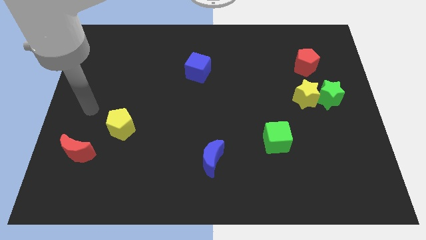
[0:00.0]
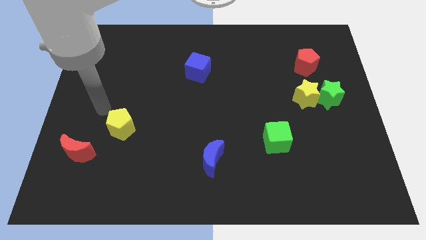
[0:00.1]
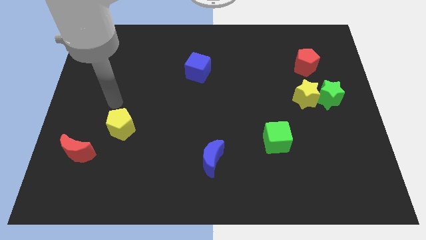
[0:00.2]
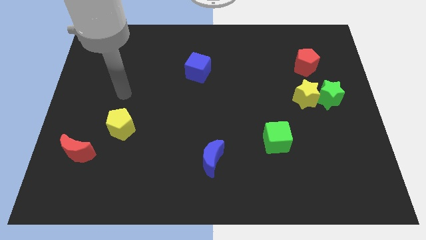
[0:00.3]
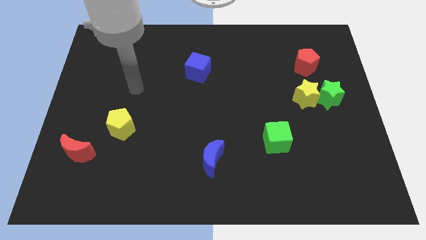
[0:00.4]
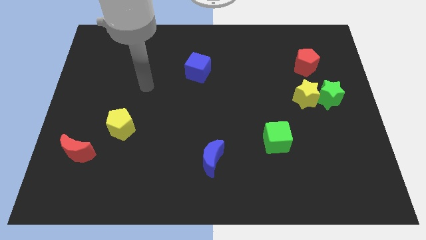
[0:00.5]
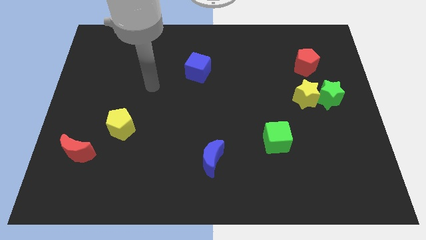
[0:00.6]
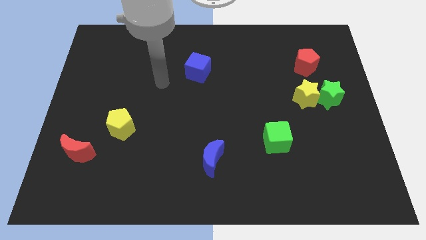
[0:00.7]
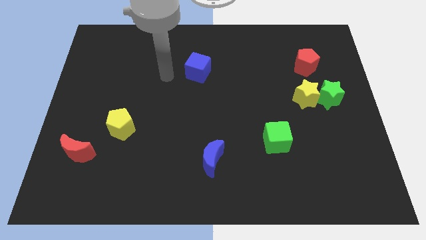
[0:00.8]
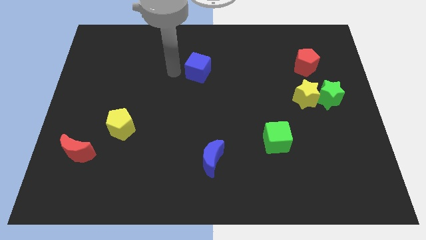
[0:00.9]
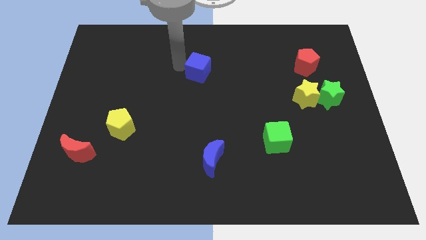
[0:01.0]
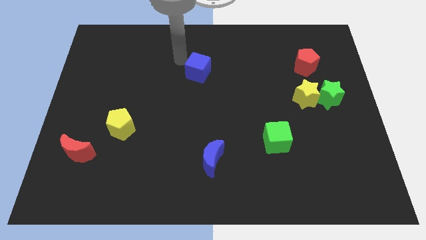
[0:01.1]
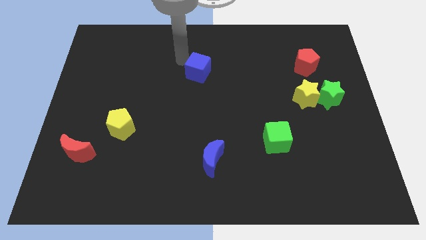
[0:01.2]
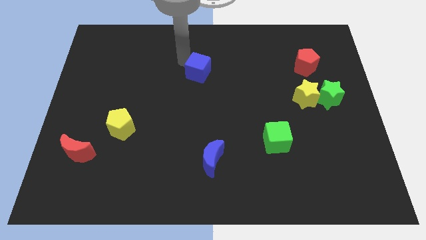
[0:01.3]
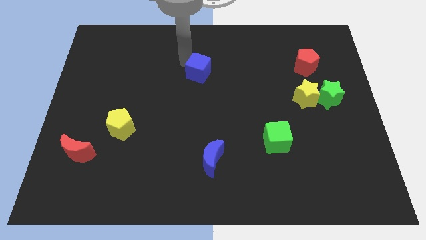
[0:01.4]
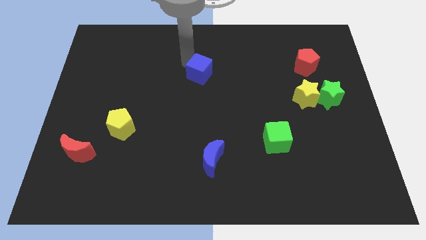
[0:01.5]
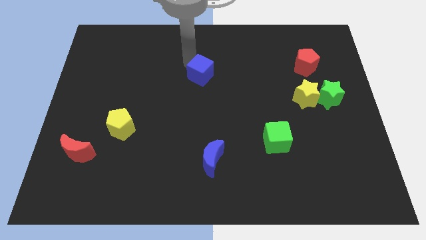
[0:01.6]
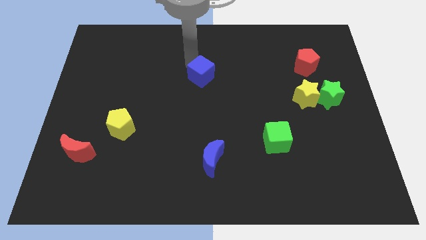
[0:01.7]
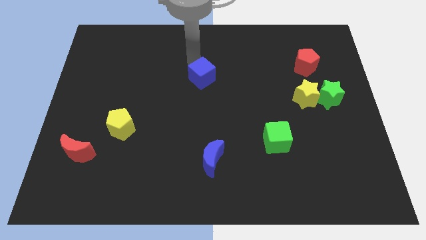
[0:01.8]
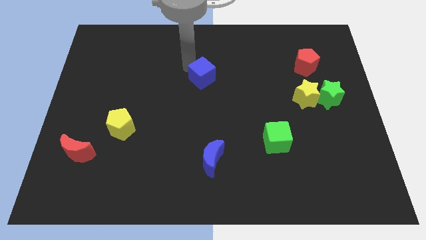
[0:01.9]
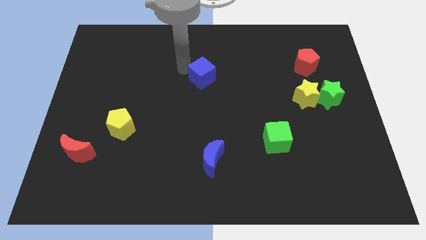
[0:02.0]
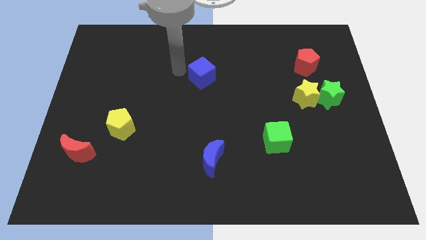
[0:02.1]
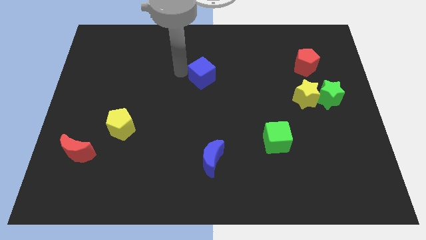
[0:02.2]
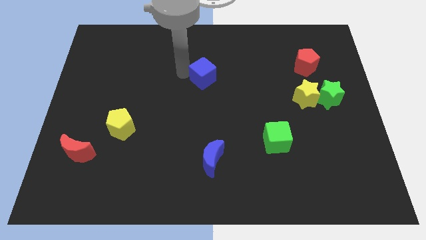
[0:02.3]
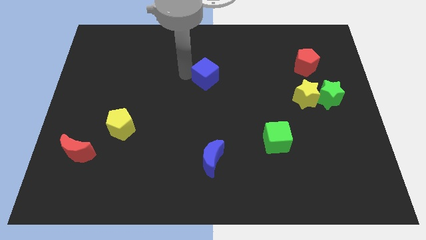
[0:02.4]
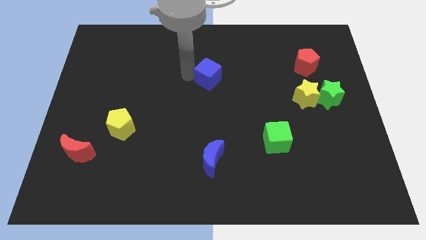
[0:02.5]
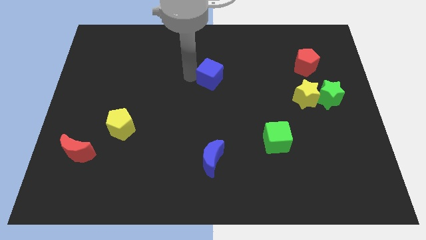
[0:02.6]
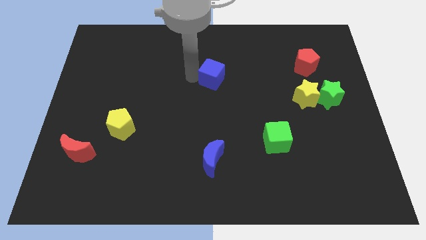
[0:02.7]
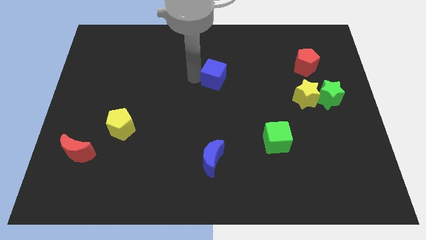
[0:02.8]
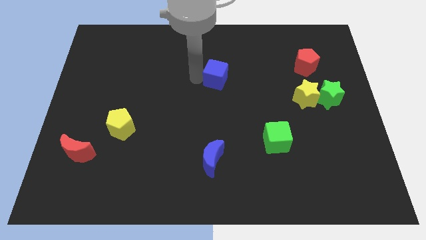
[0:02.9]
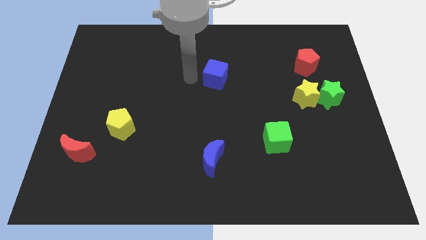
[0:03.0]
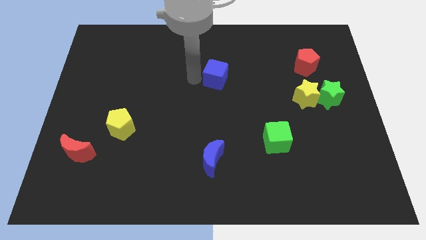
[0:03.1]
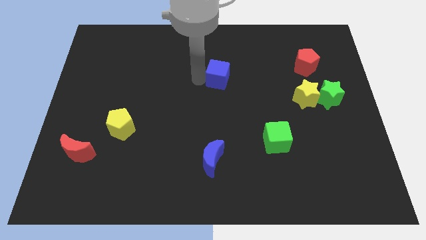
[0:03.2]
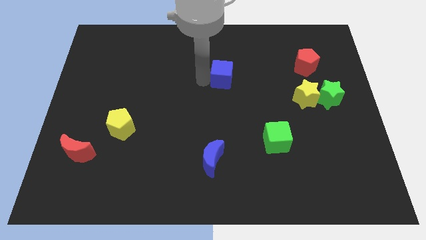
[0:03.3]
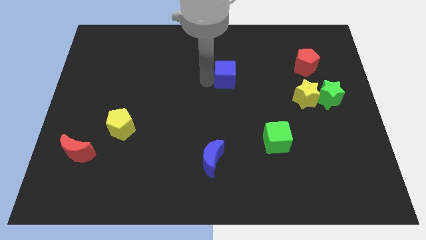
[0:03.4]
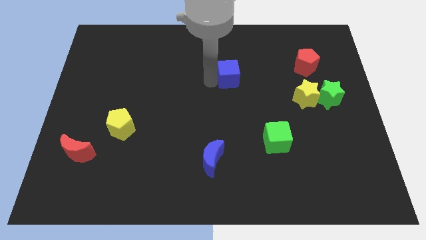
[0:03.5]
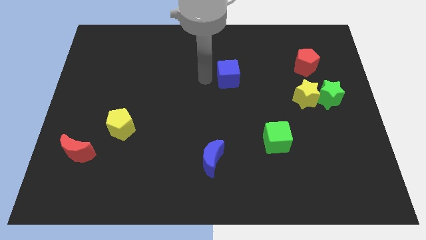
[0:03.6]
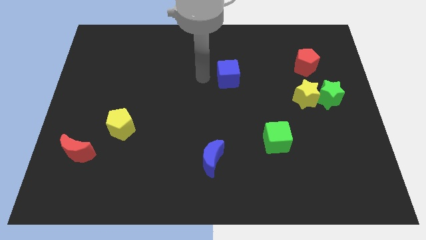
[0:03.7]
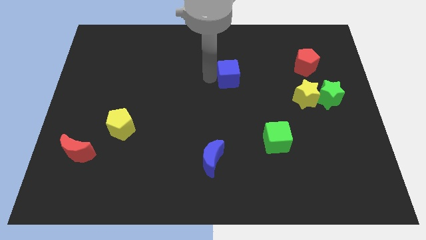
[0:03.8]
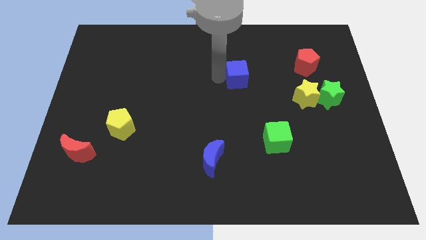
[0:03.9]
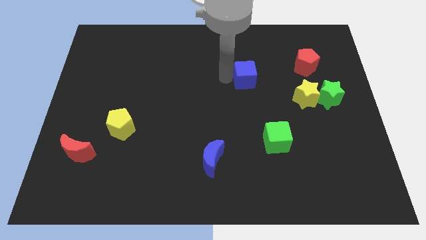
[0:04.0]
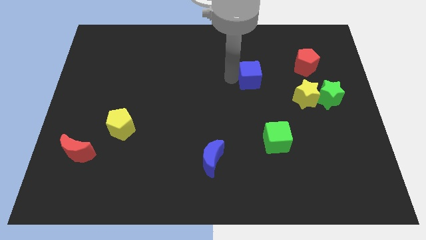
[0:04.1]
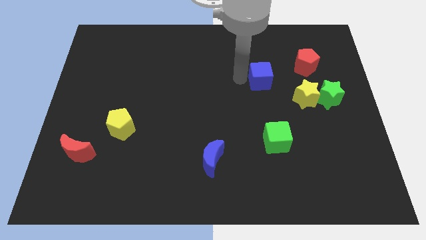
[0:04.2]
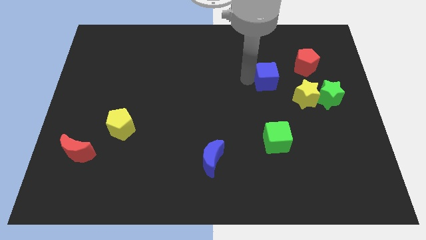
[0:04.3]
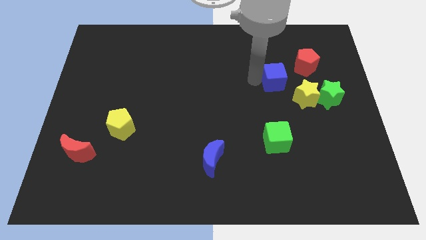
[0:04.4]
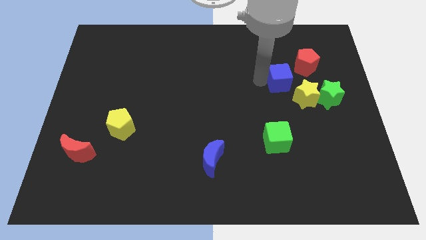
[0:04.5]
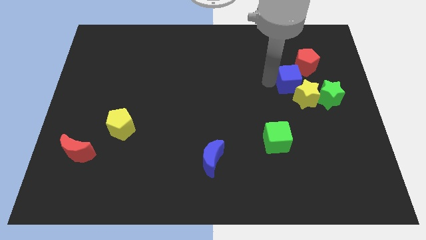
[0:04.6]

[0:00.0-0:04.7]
put the blue cube to the yellow star

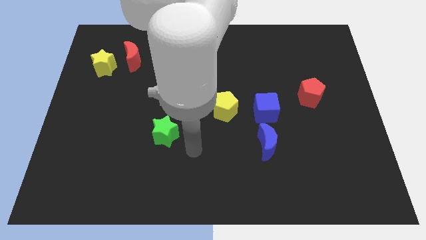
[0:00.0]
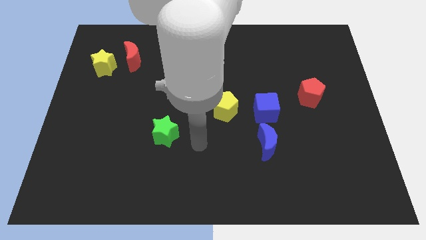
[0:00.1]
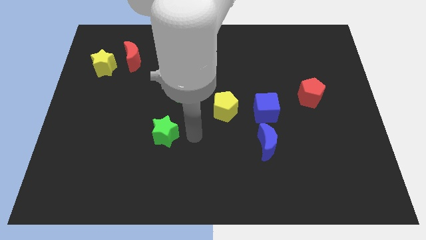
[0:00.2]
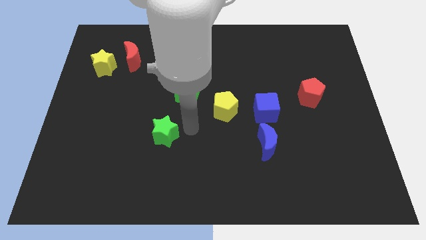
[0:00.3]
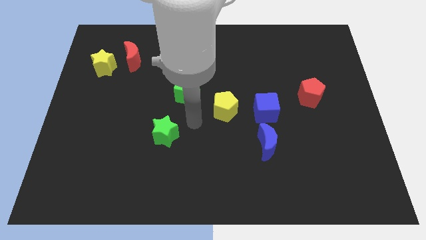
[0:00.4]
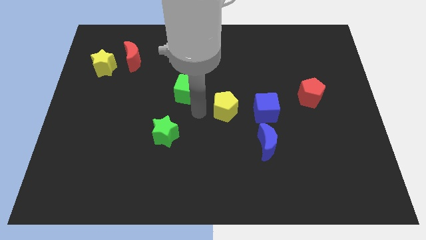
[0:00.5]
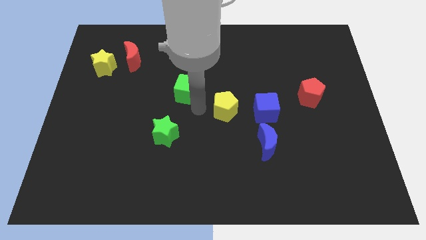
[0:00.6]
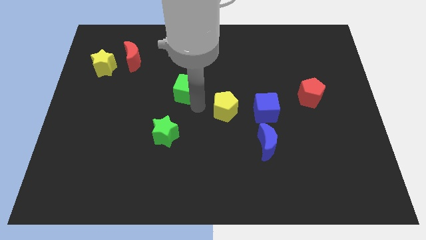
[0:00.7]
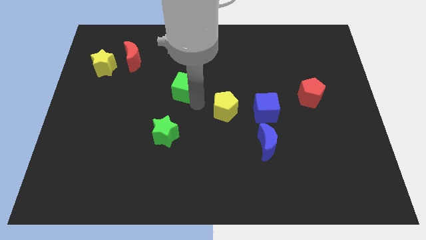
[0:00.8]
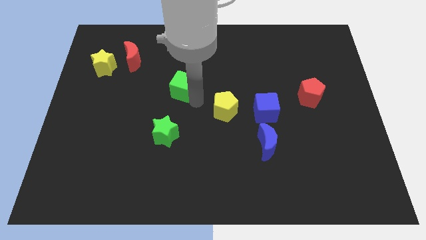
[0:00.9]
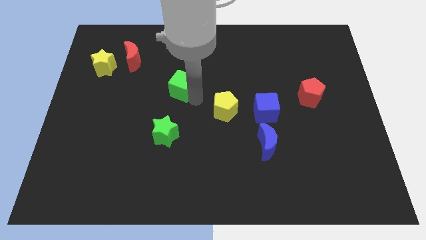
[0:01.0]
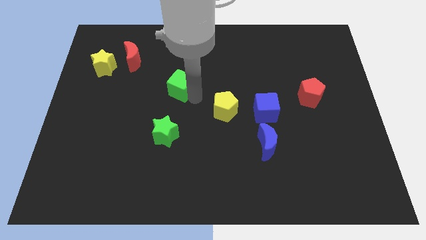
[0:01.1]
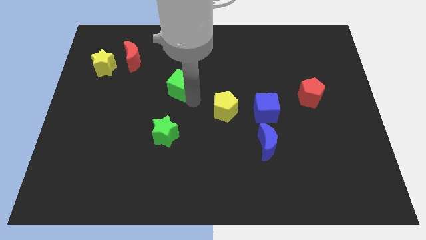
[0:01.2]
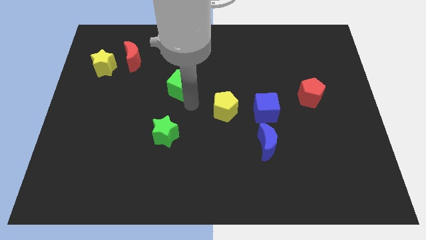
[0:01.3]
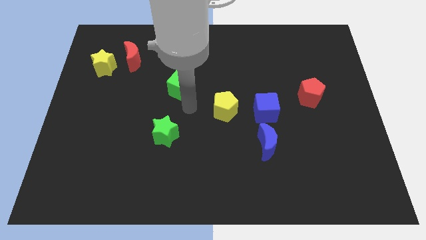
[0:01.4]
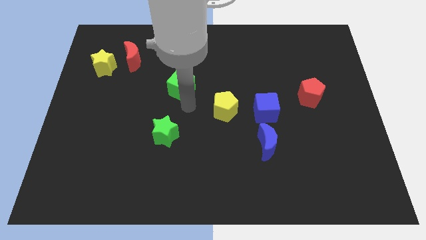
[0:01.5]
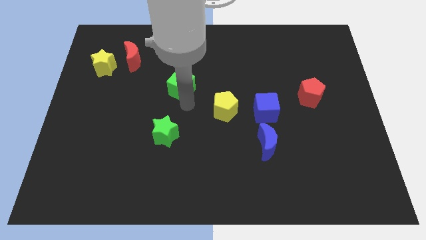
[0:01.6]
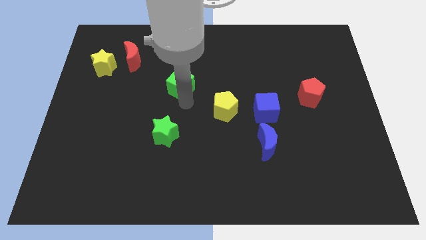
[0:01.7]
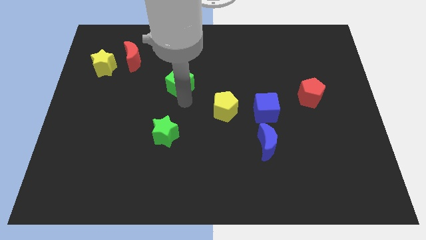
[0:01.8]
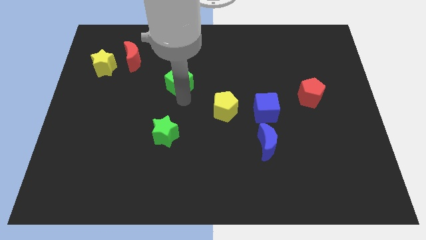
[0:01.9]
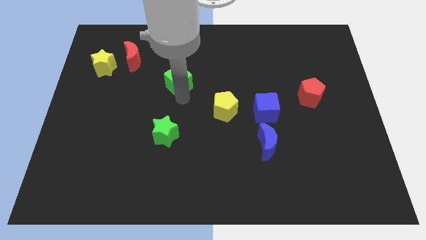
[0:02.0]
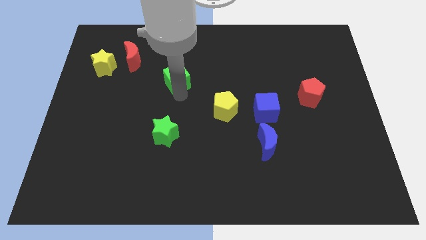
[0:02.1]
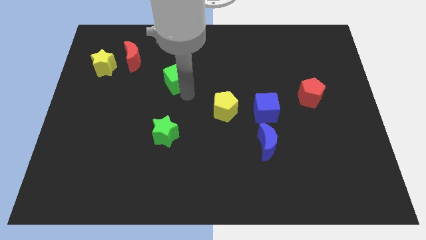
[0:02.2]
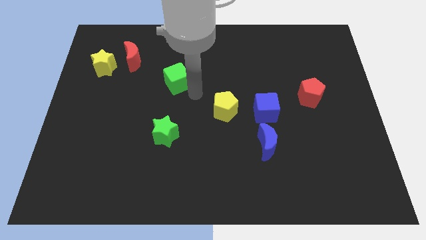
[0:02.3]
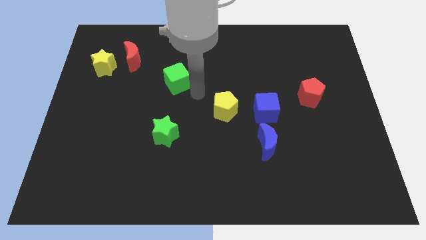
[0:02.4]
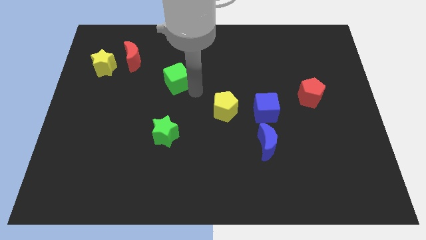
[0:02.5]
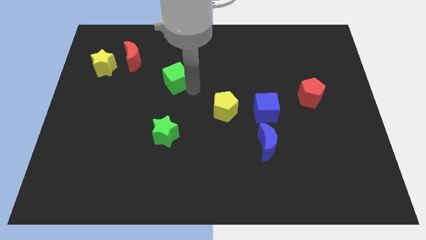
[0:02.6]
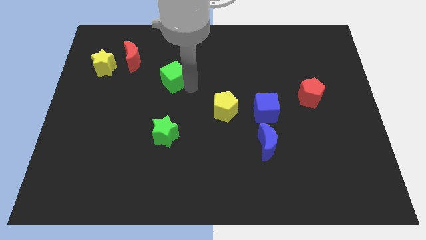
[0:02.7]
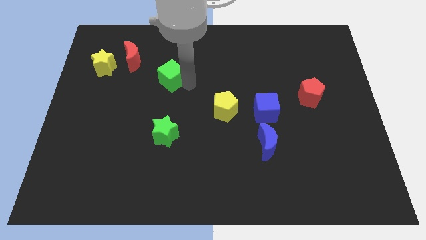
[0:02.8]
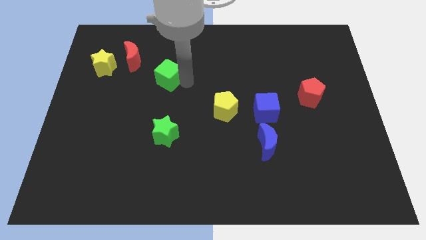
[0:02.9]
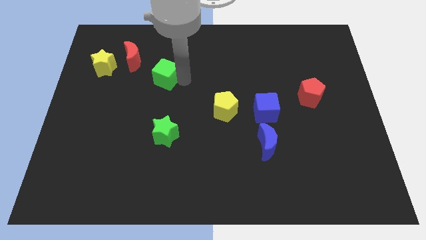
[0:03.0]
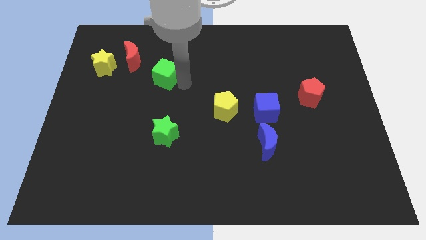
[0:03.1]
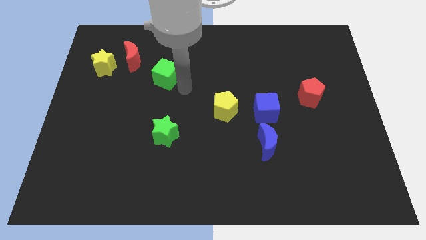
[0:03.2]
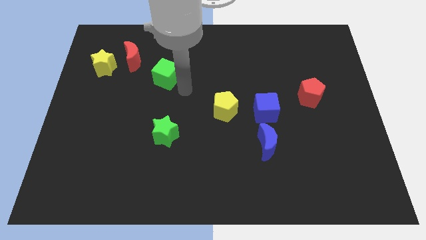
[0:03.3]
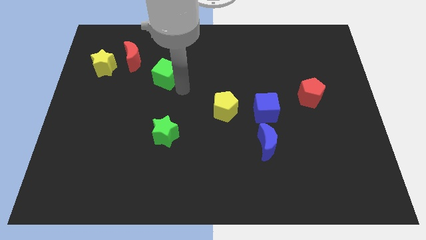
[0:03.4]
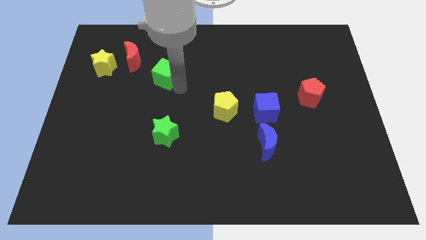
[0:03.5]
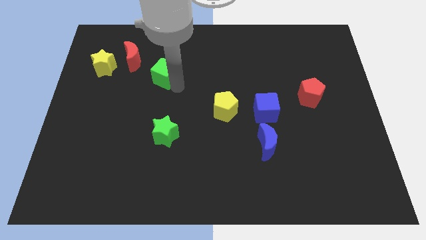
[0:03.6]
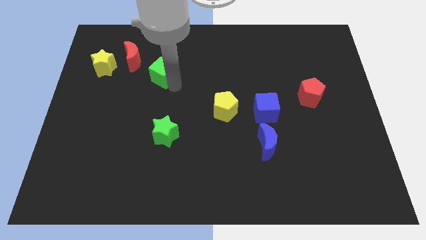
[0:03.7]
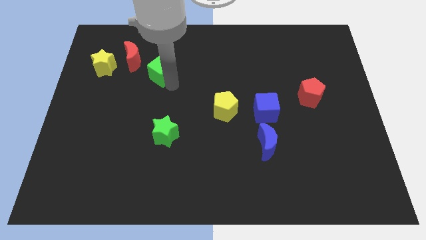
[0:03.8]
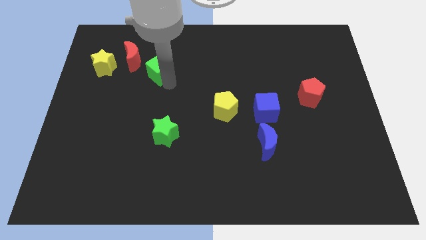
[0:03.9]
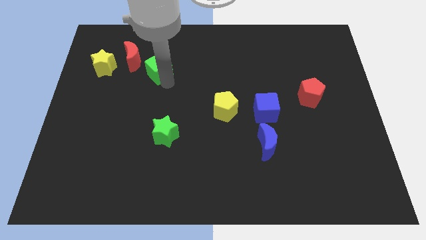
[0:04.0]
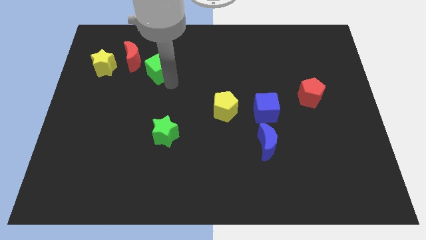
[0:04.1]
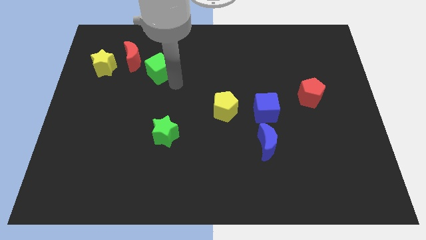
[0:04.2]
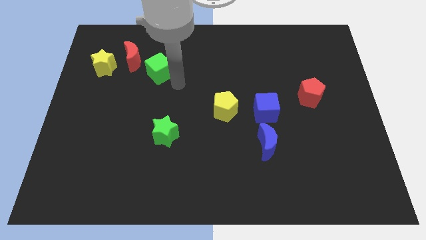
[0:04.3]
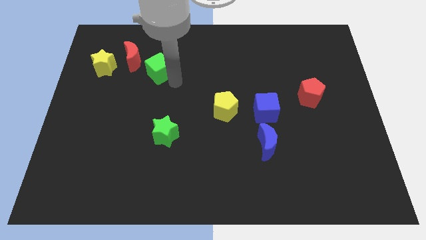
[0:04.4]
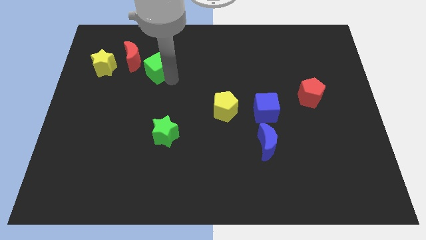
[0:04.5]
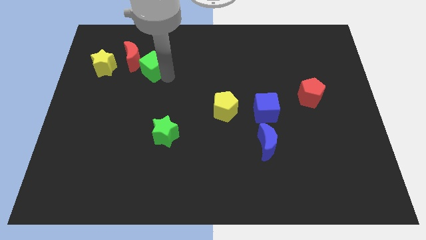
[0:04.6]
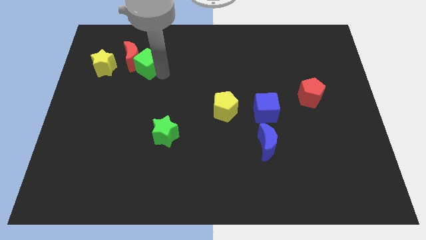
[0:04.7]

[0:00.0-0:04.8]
slide the green cube to the red moon
